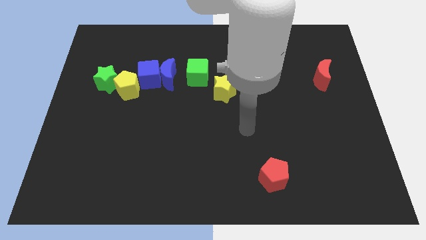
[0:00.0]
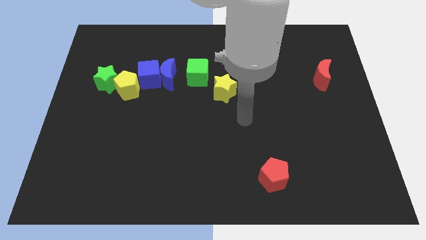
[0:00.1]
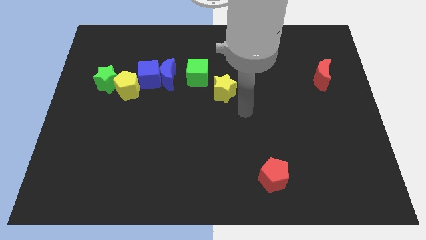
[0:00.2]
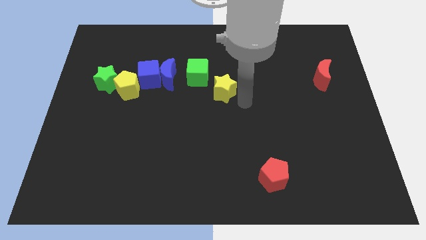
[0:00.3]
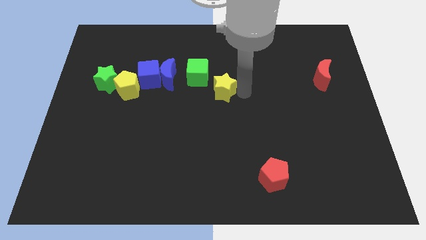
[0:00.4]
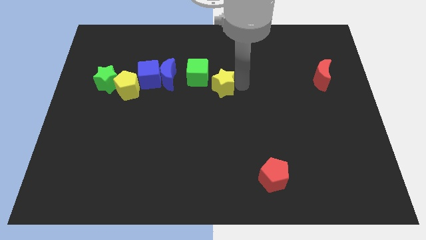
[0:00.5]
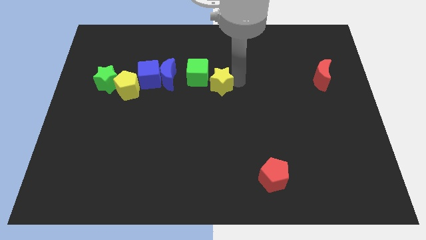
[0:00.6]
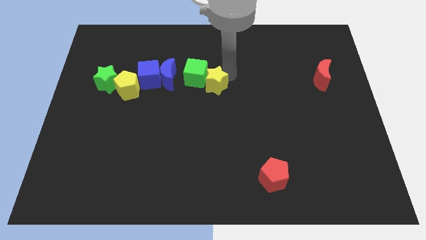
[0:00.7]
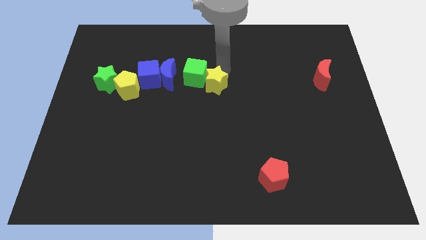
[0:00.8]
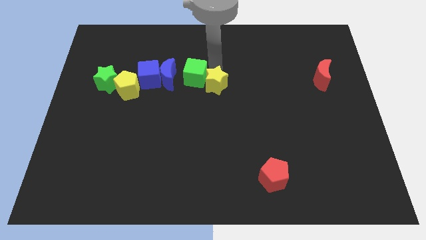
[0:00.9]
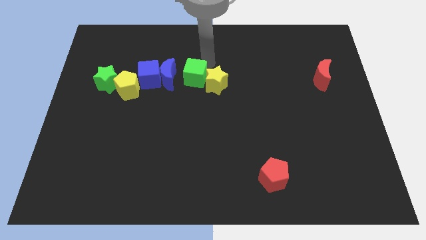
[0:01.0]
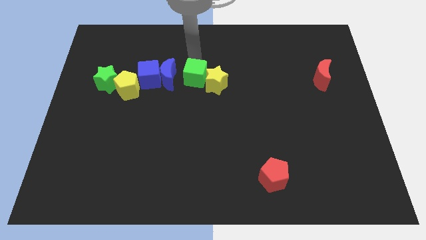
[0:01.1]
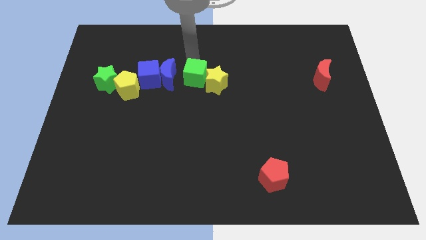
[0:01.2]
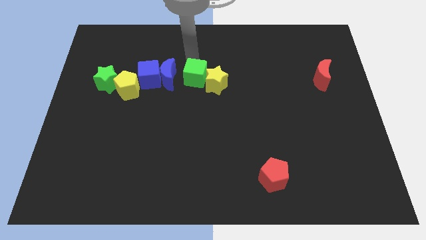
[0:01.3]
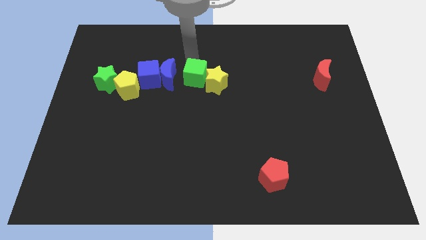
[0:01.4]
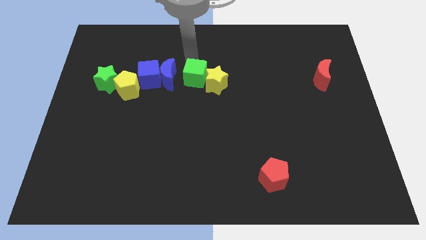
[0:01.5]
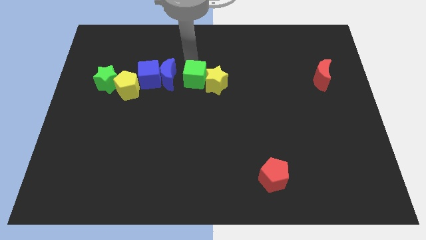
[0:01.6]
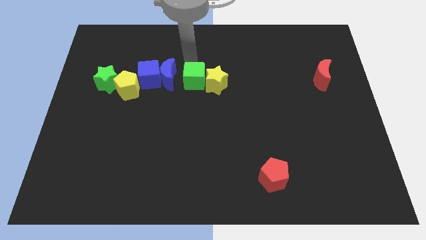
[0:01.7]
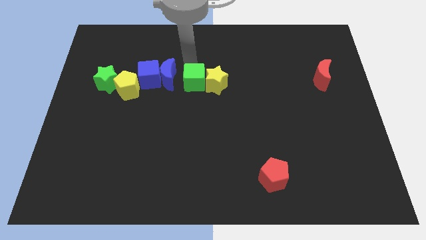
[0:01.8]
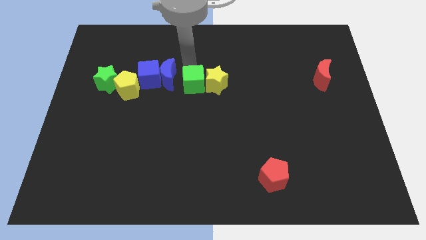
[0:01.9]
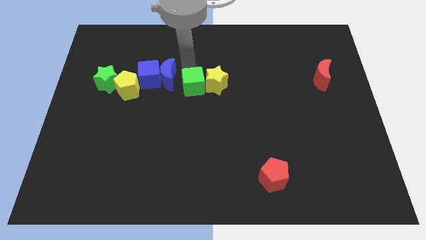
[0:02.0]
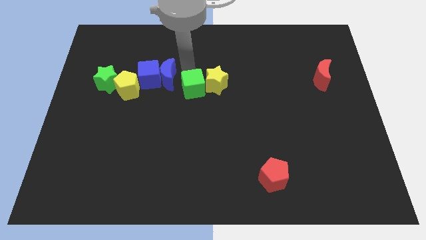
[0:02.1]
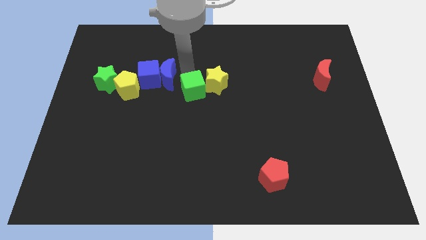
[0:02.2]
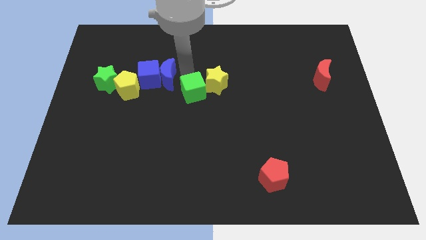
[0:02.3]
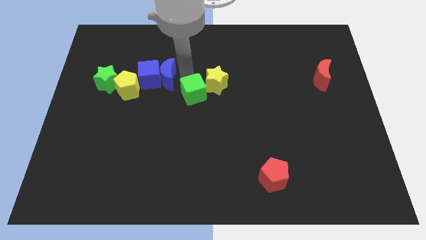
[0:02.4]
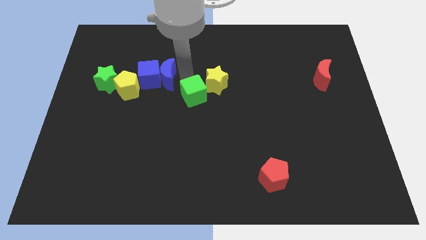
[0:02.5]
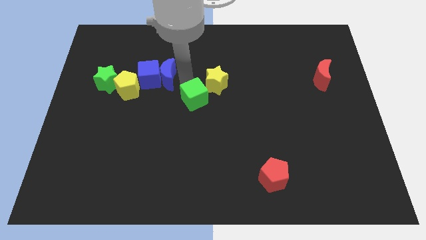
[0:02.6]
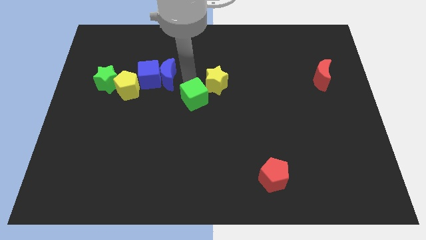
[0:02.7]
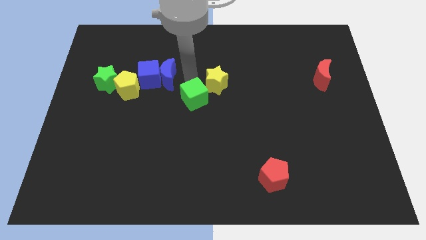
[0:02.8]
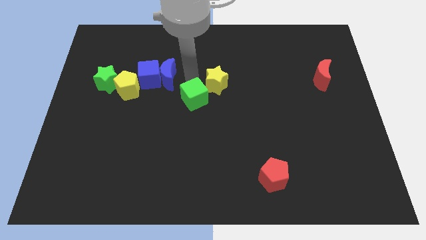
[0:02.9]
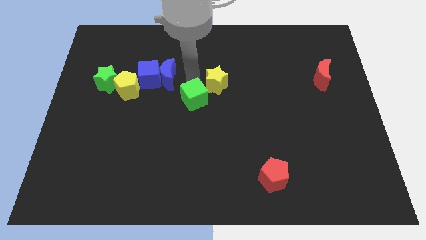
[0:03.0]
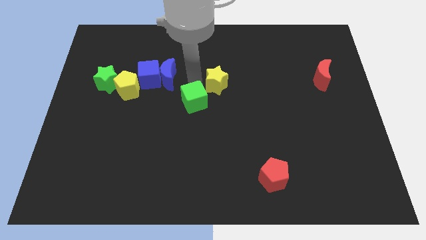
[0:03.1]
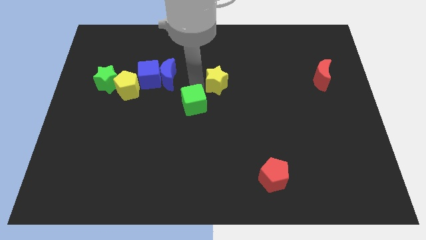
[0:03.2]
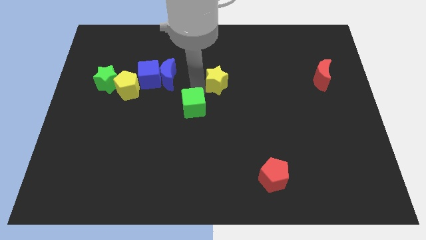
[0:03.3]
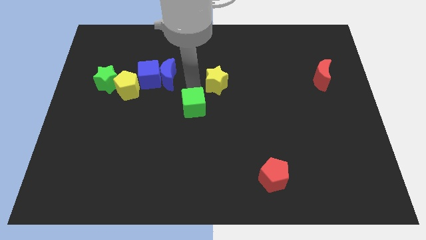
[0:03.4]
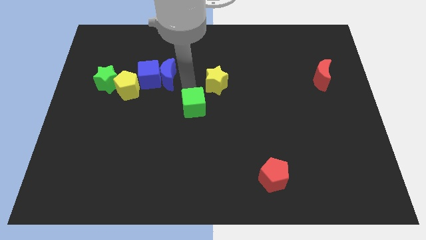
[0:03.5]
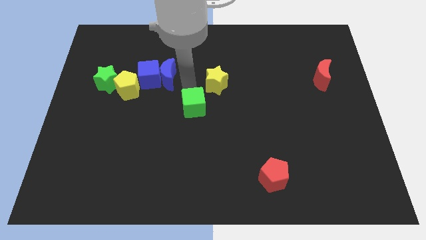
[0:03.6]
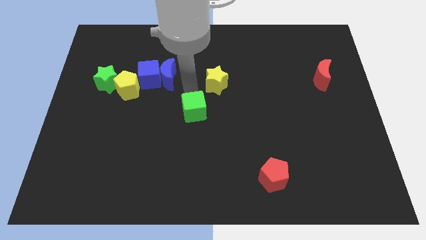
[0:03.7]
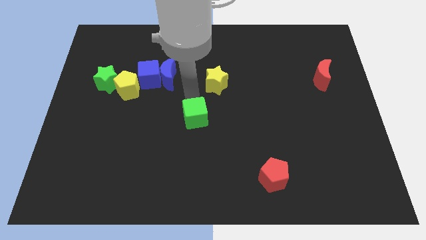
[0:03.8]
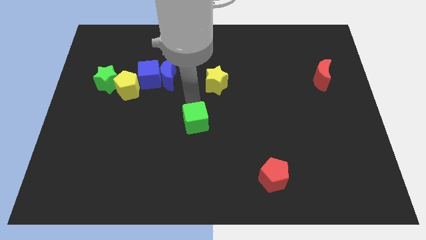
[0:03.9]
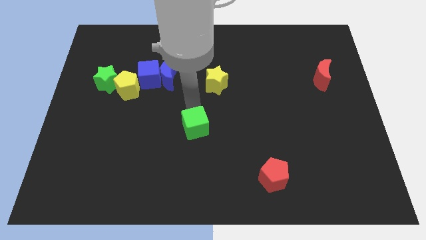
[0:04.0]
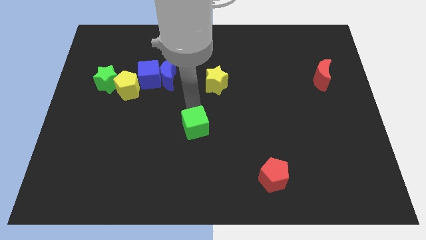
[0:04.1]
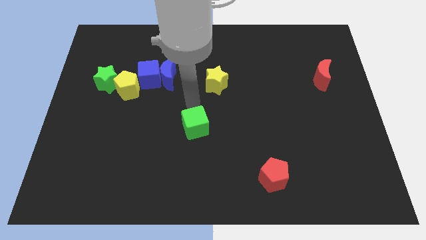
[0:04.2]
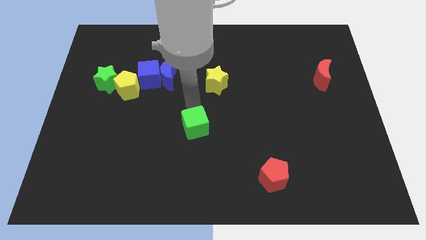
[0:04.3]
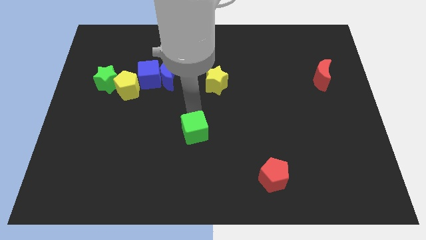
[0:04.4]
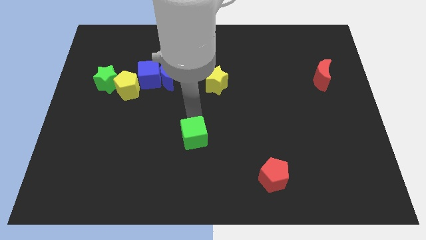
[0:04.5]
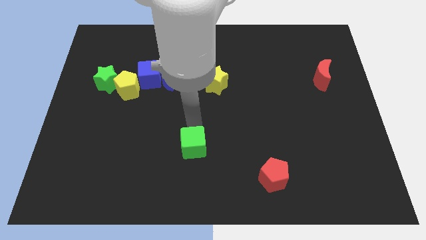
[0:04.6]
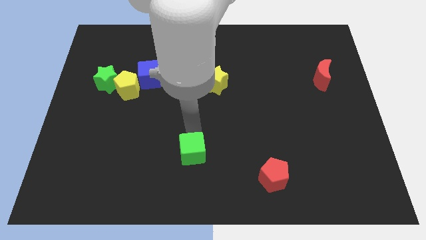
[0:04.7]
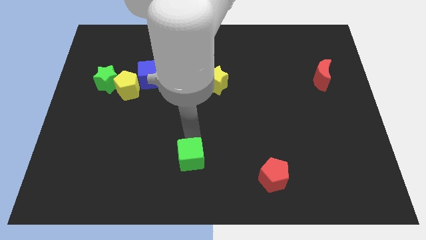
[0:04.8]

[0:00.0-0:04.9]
push the green cube to the bottom

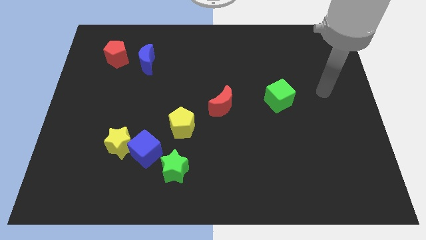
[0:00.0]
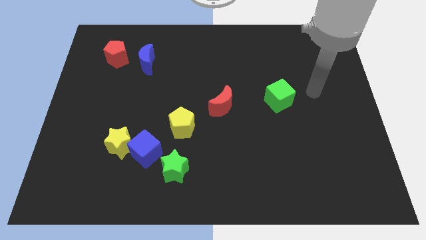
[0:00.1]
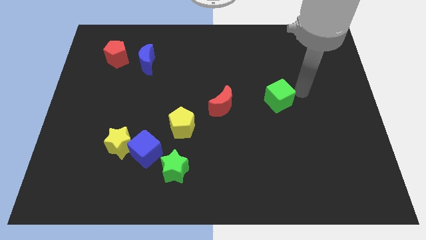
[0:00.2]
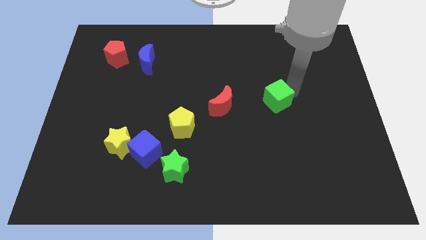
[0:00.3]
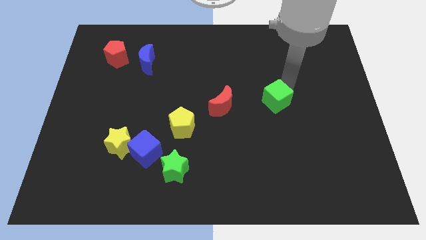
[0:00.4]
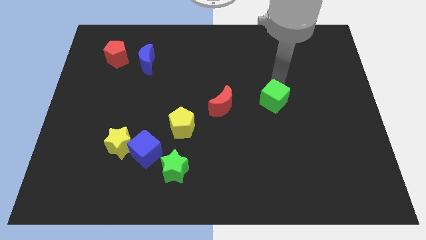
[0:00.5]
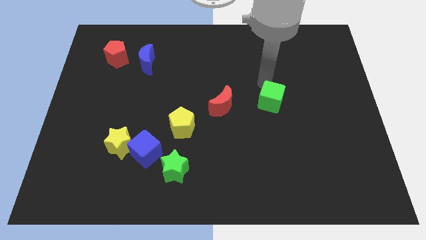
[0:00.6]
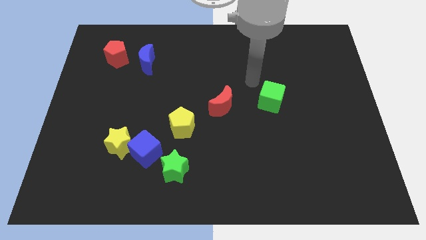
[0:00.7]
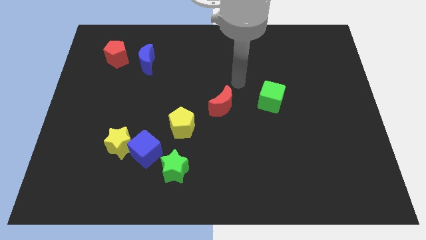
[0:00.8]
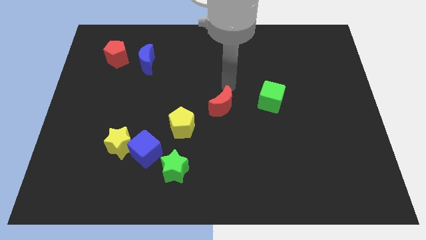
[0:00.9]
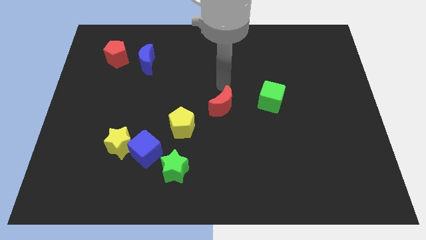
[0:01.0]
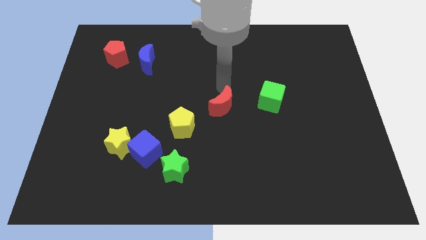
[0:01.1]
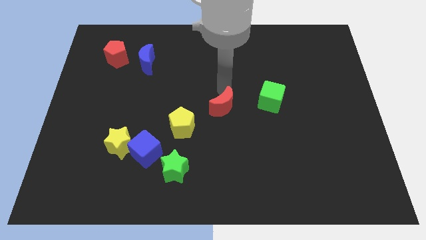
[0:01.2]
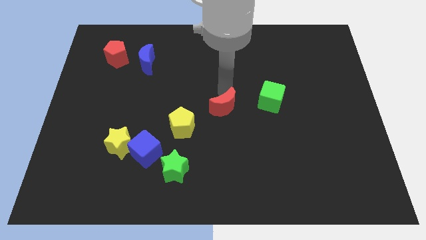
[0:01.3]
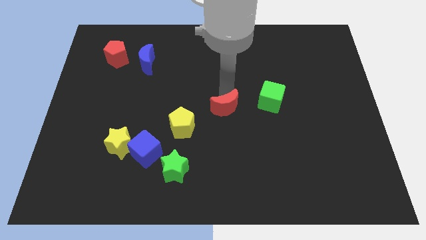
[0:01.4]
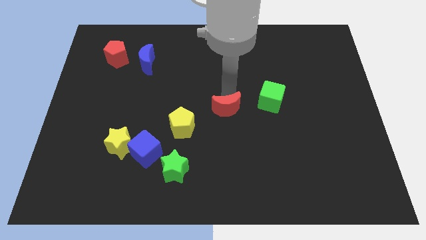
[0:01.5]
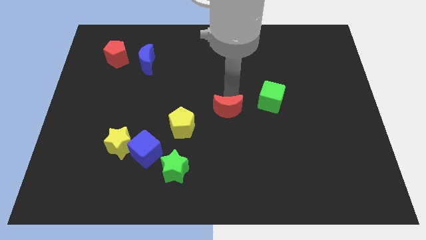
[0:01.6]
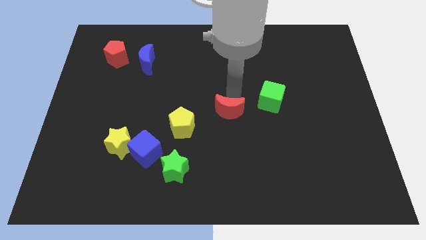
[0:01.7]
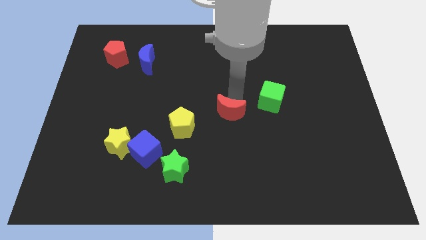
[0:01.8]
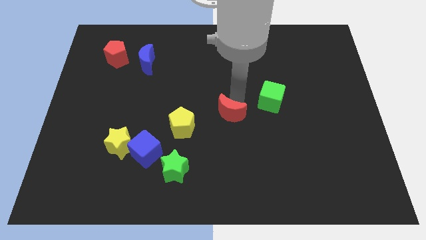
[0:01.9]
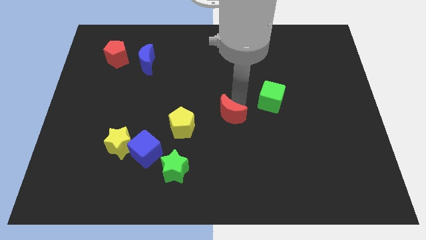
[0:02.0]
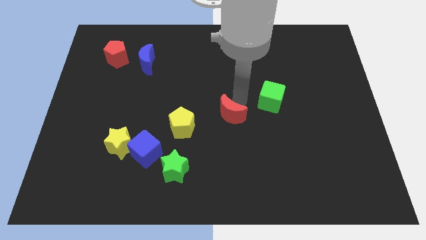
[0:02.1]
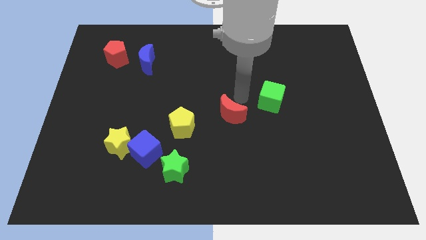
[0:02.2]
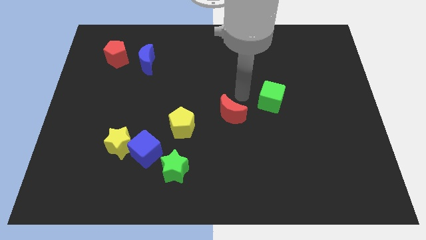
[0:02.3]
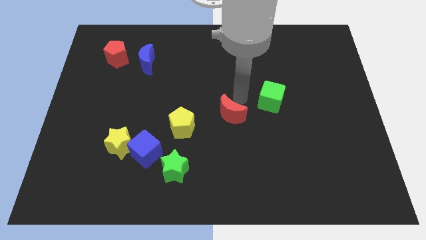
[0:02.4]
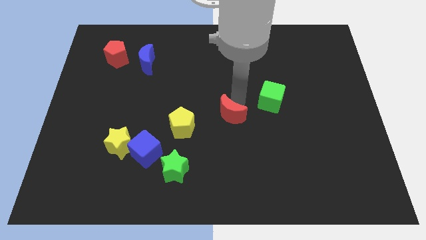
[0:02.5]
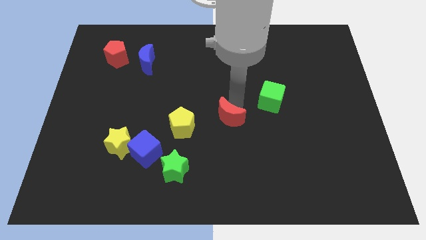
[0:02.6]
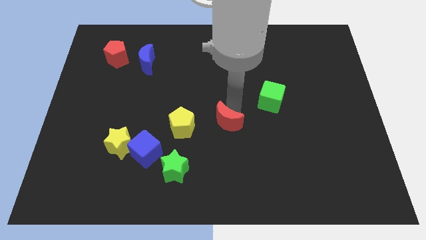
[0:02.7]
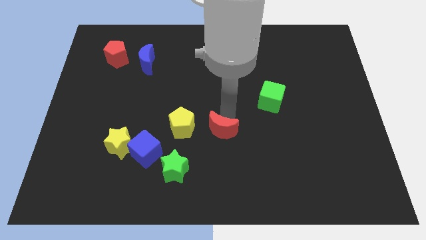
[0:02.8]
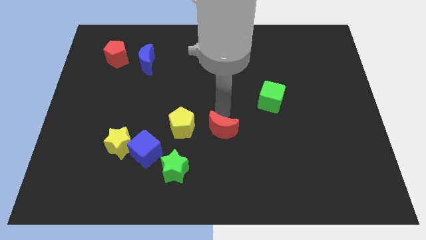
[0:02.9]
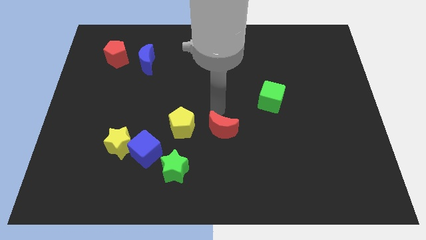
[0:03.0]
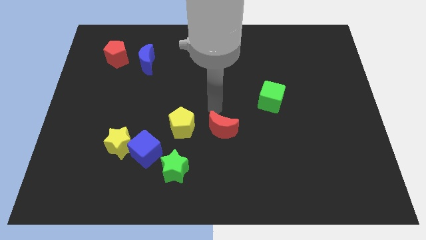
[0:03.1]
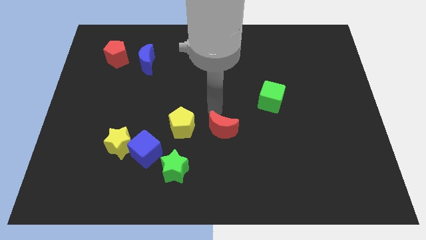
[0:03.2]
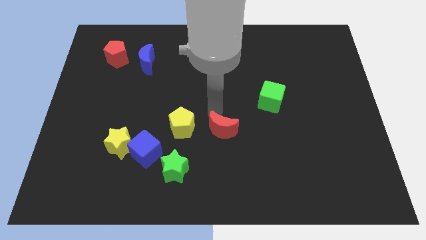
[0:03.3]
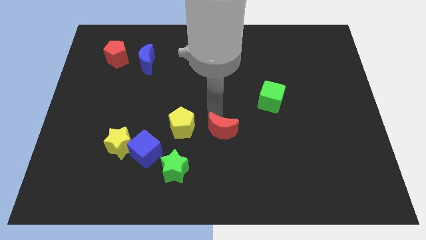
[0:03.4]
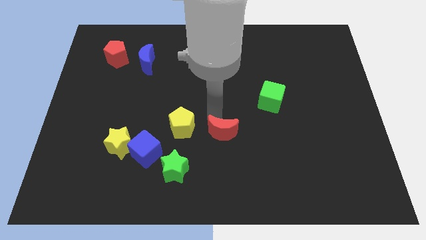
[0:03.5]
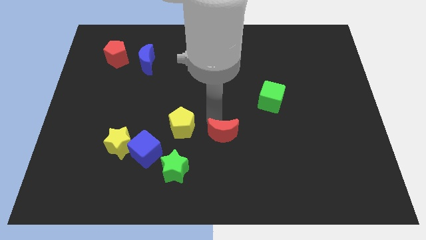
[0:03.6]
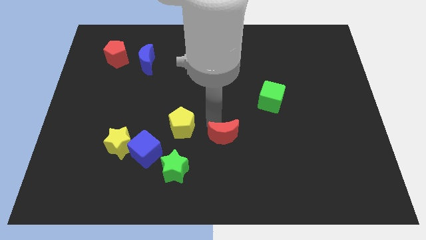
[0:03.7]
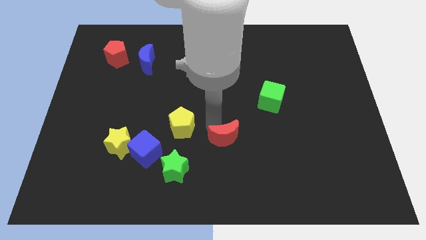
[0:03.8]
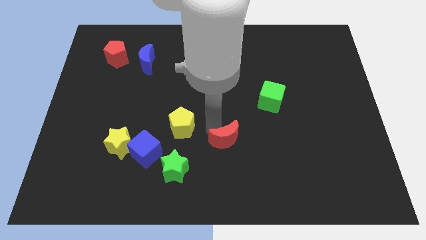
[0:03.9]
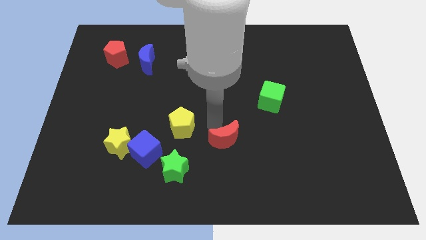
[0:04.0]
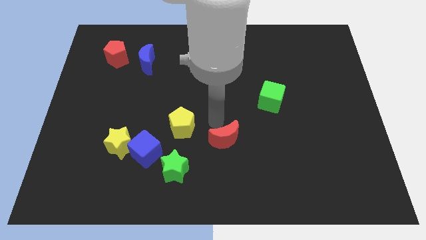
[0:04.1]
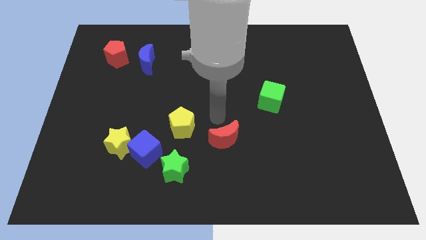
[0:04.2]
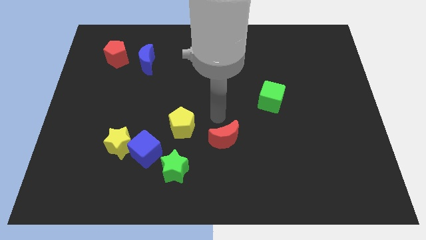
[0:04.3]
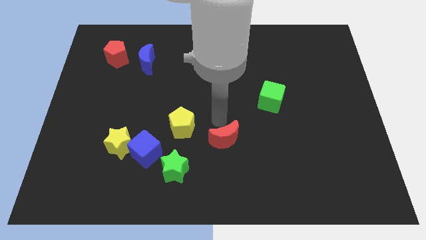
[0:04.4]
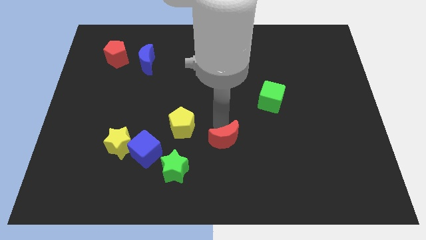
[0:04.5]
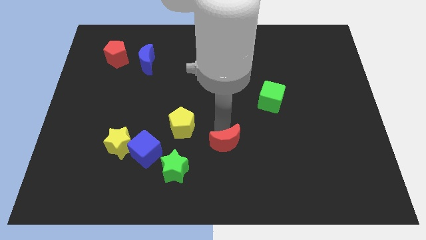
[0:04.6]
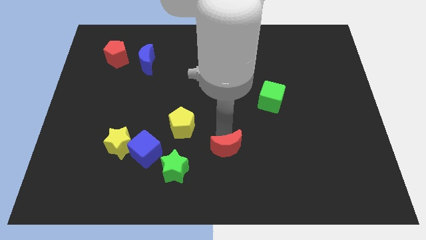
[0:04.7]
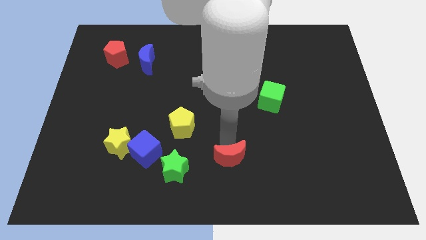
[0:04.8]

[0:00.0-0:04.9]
move the red moon to the bottom side
